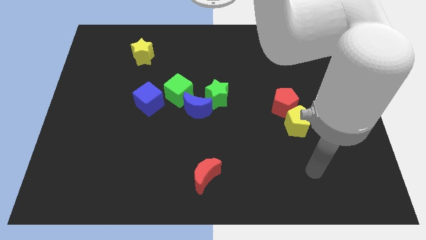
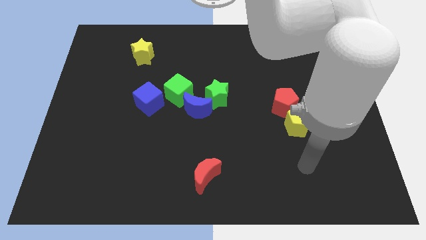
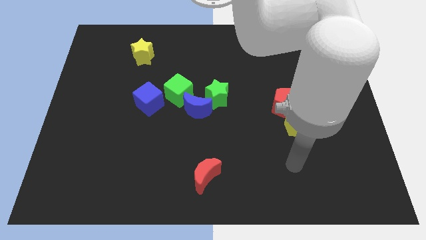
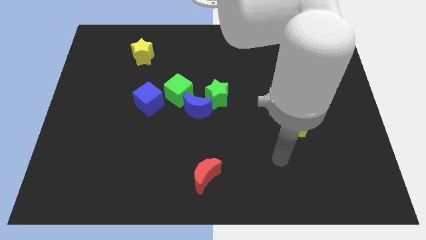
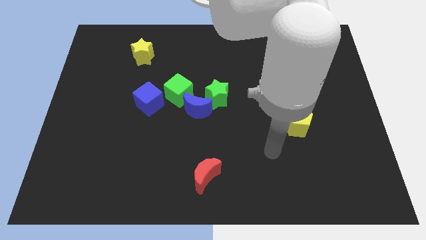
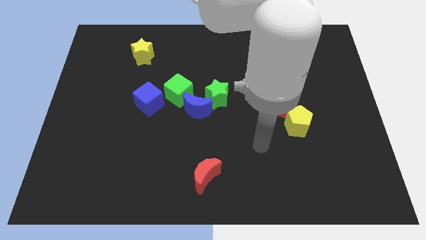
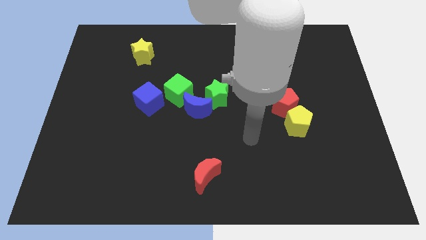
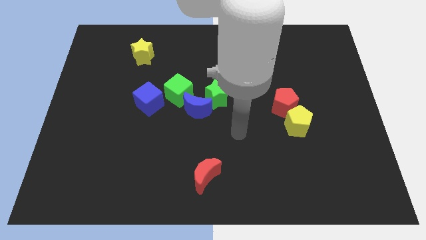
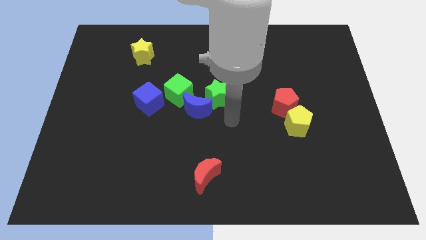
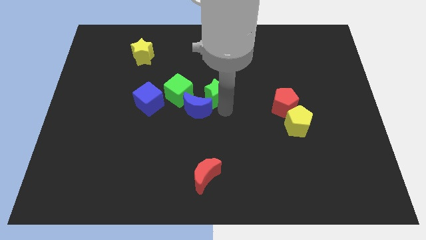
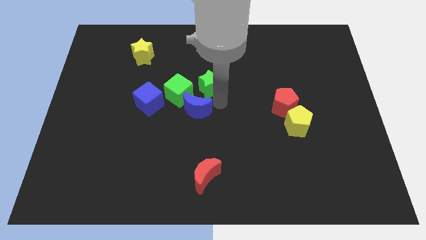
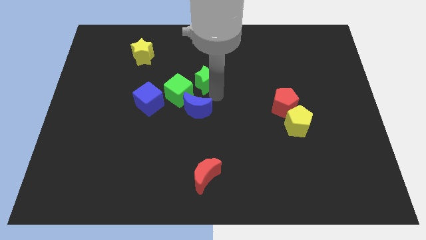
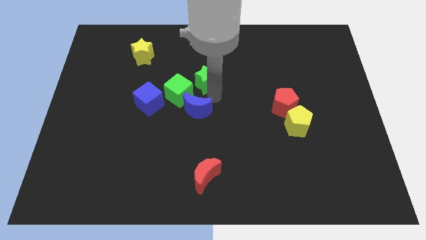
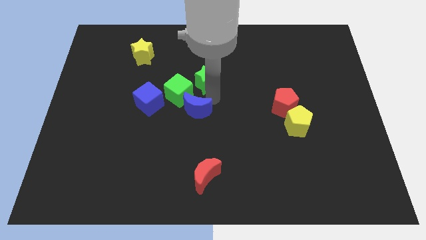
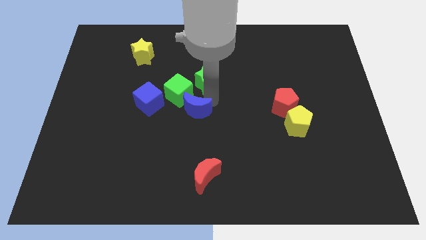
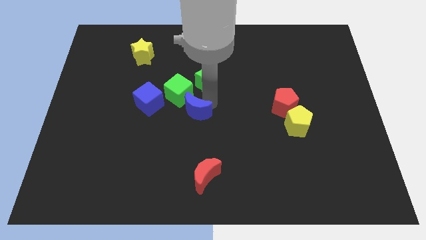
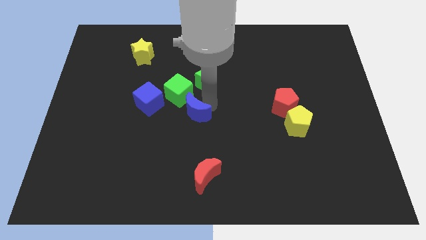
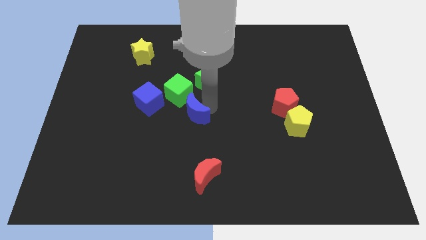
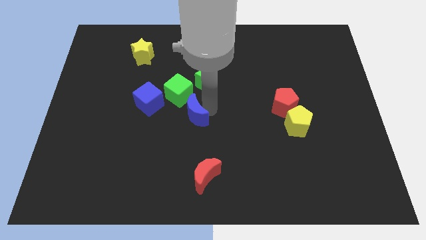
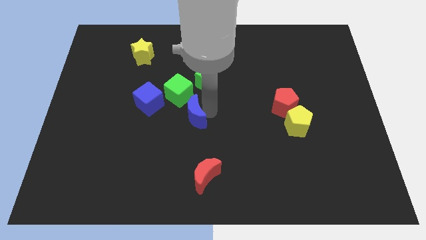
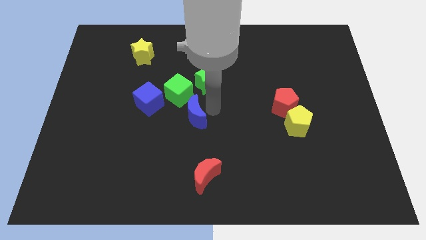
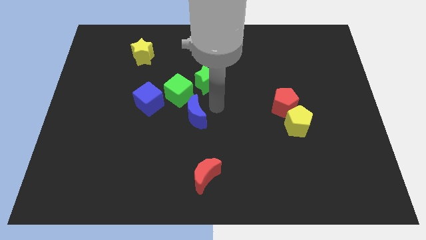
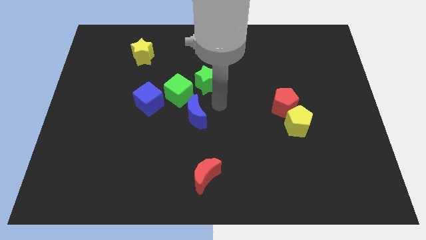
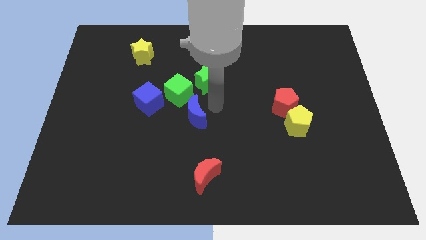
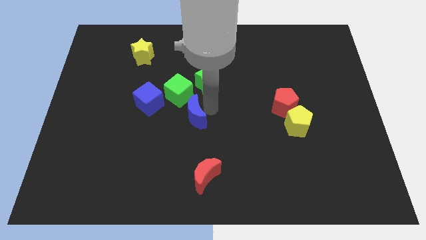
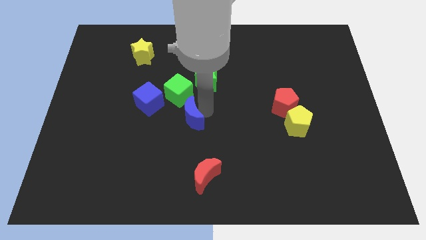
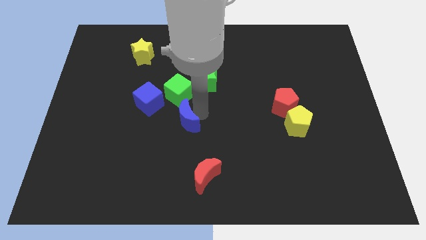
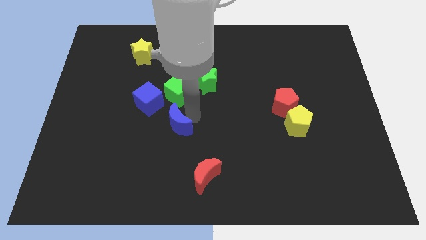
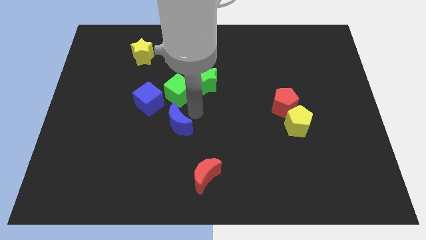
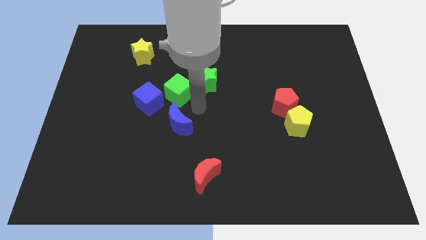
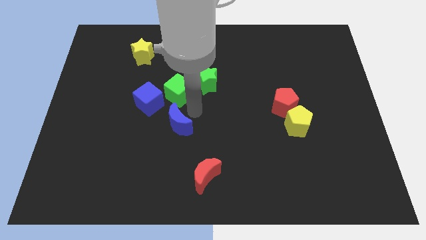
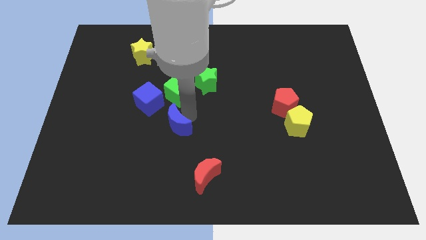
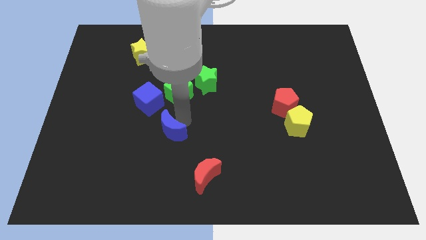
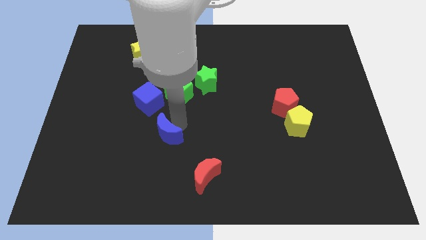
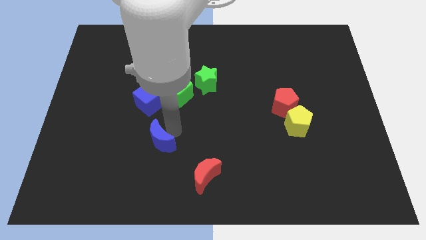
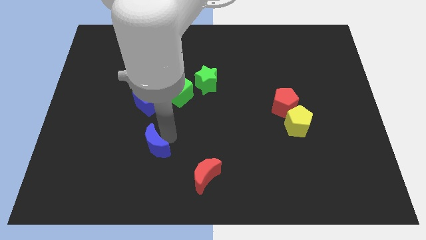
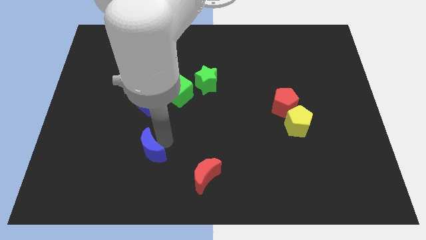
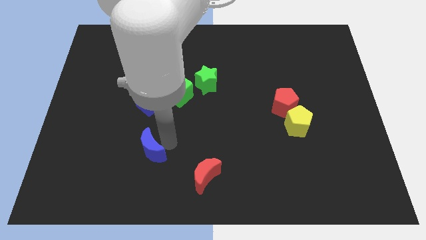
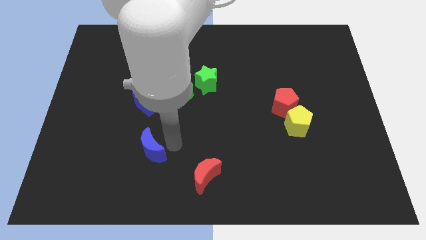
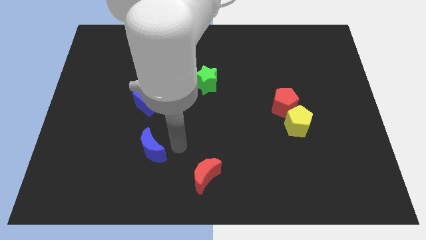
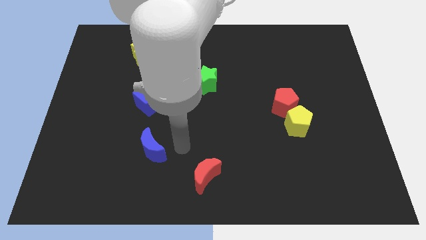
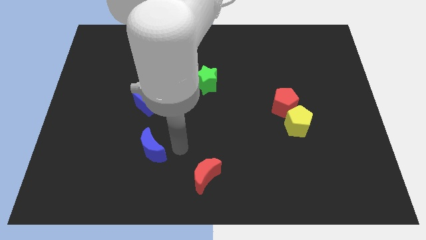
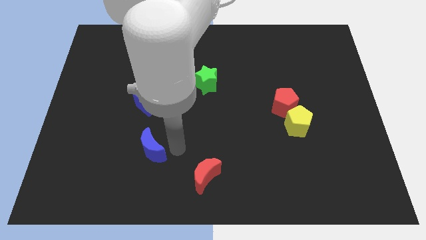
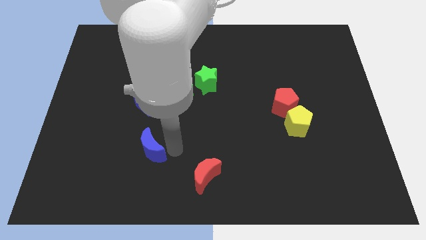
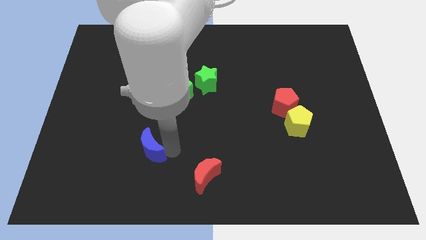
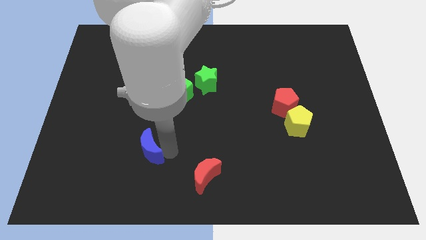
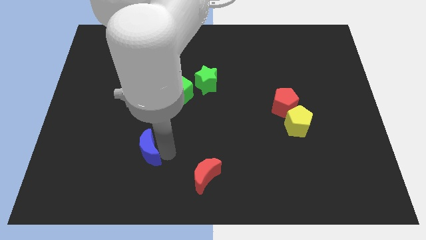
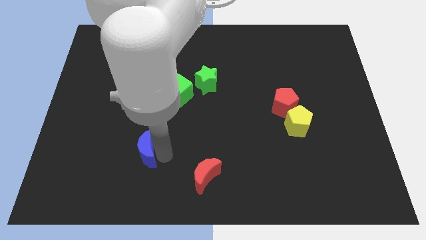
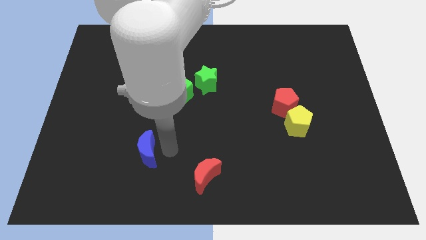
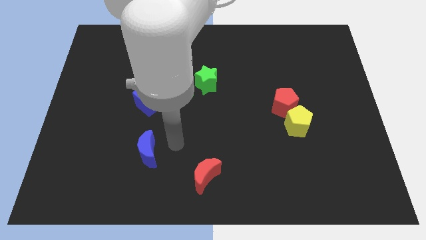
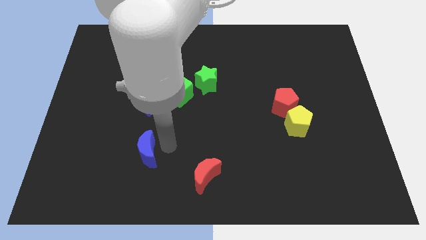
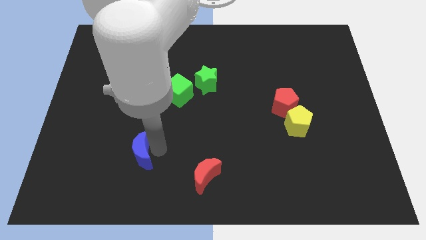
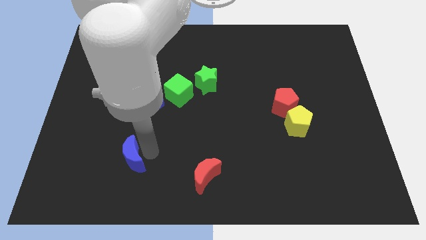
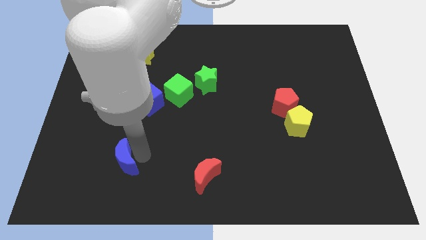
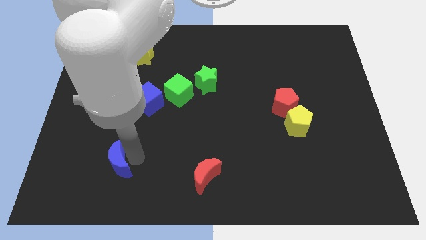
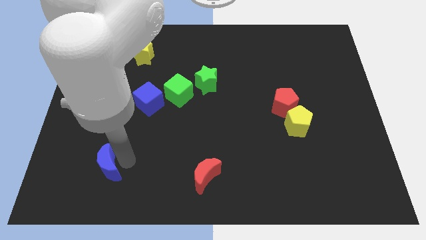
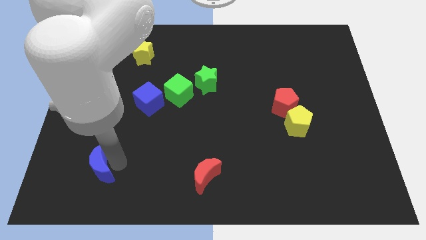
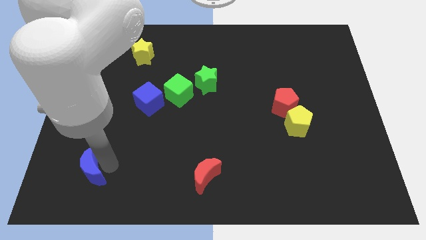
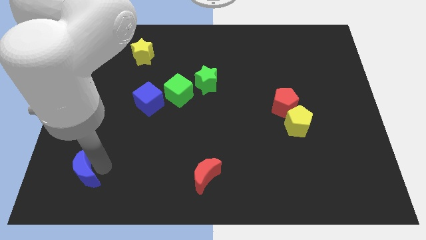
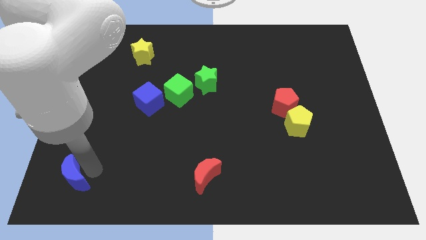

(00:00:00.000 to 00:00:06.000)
slide the blue moon to the lower left corner

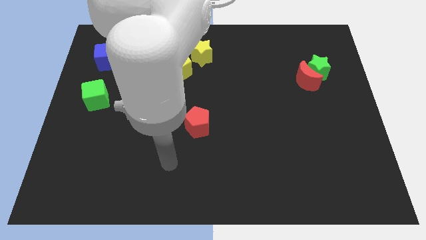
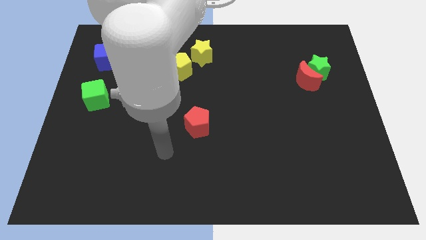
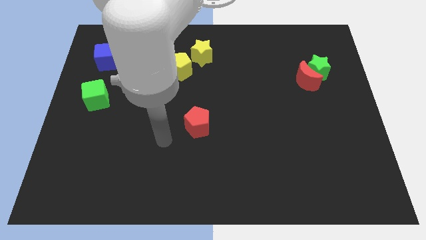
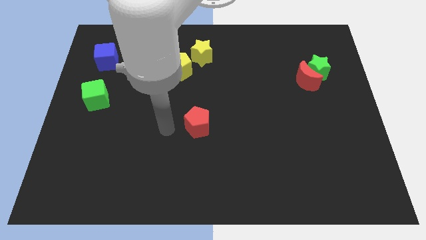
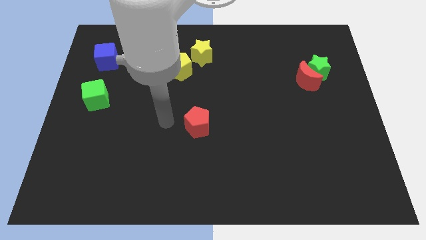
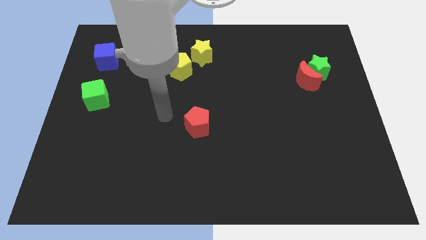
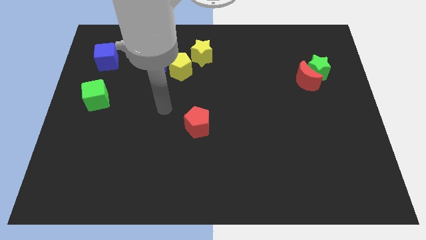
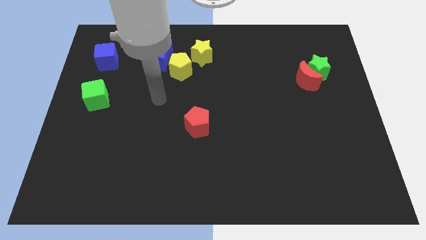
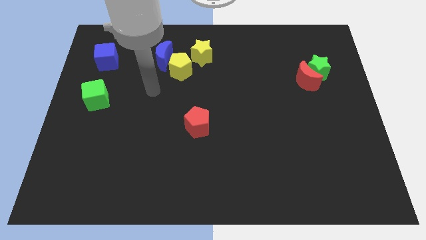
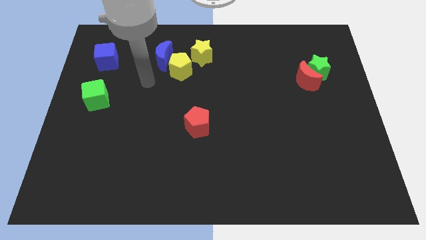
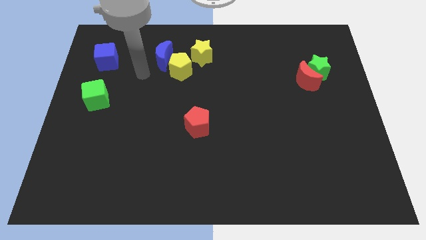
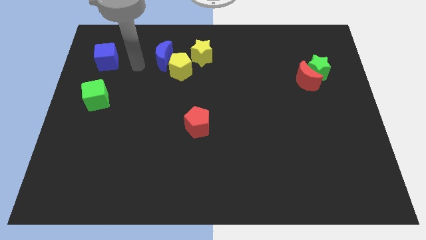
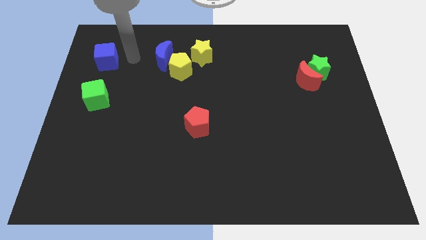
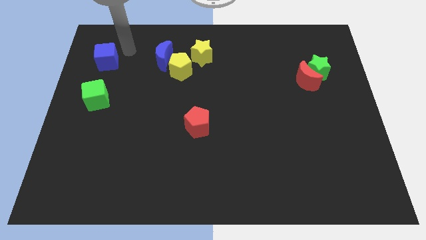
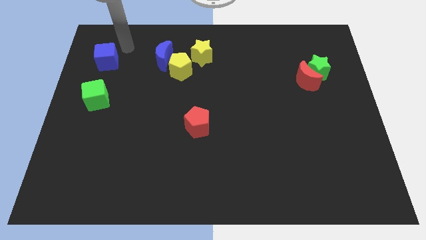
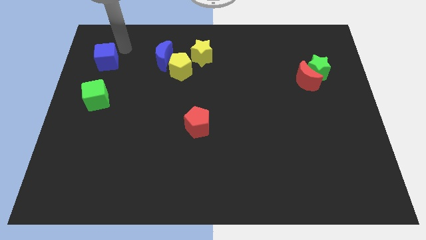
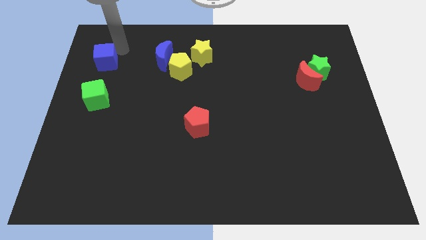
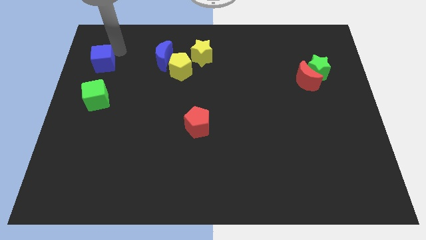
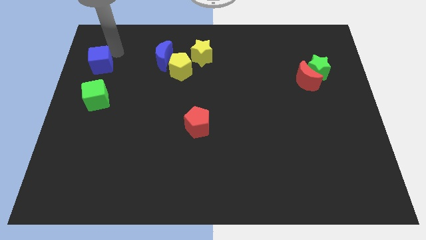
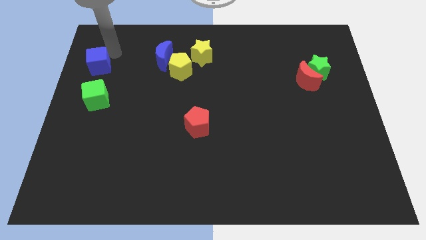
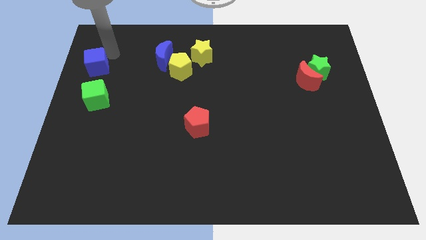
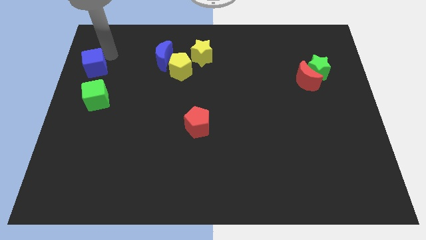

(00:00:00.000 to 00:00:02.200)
move the blue cube to the left side
